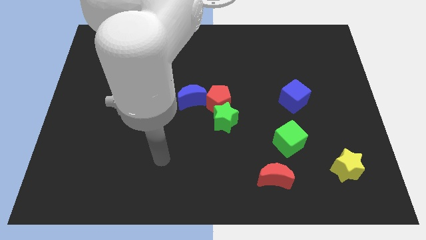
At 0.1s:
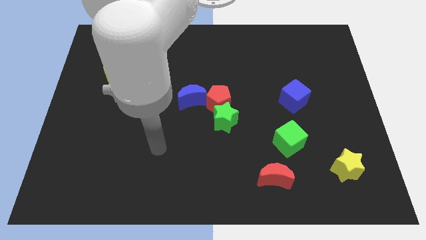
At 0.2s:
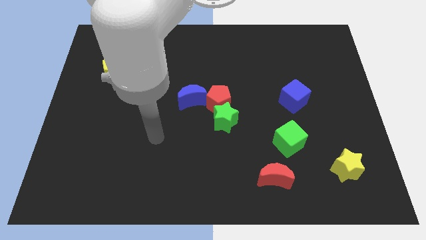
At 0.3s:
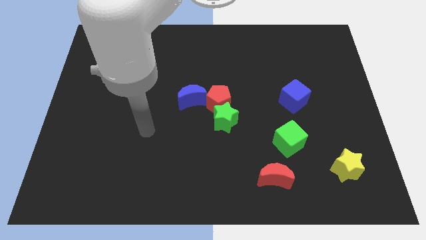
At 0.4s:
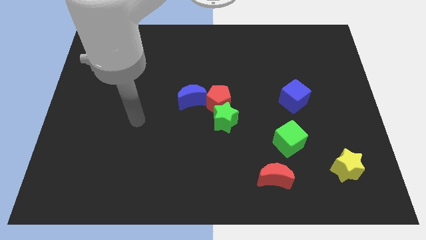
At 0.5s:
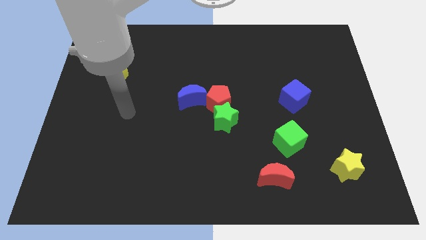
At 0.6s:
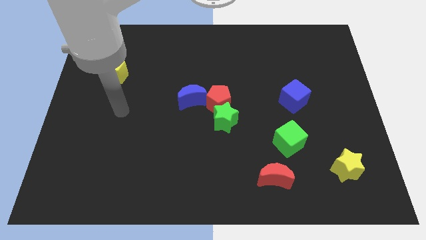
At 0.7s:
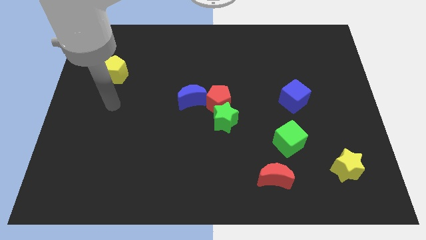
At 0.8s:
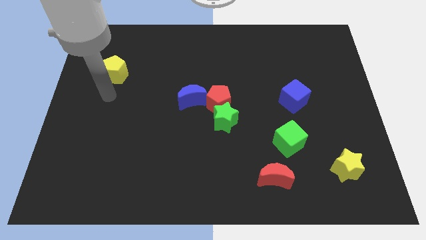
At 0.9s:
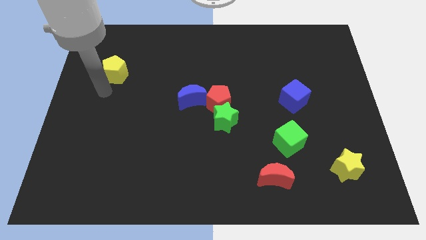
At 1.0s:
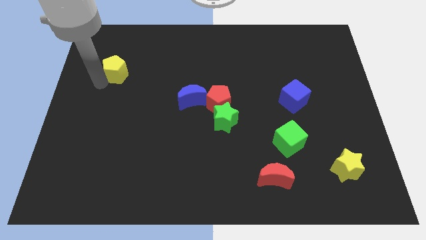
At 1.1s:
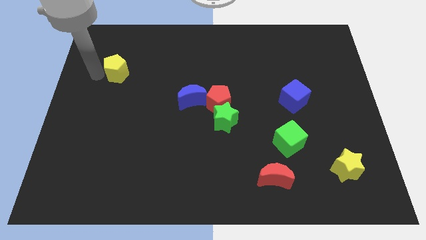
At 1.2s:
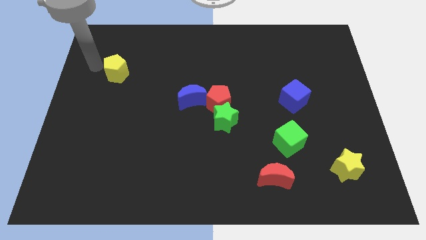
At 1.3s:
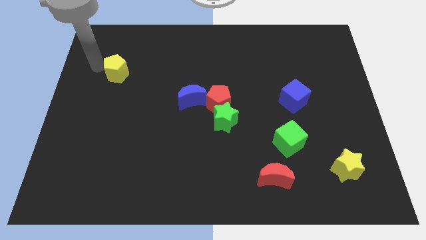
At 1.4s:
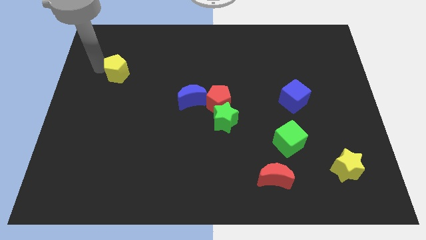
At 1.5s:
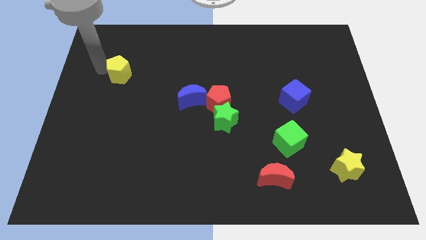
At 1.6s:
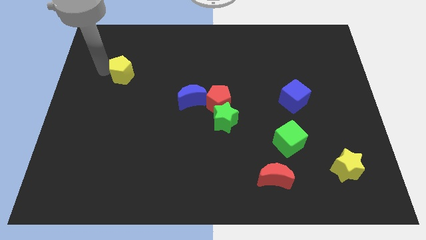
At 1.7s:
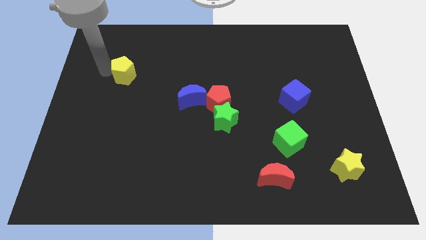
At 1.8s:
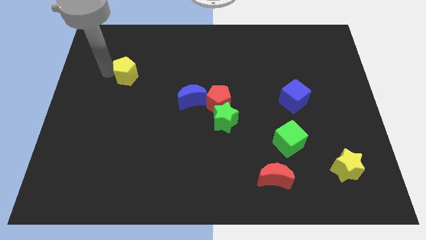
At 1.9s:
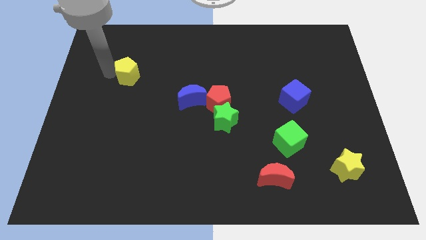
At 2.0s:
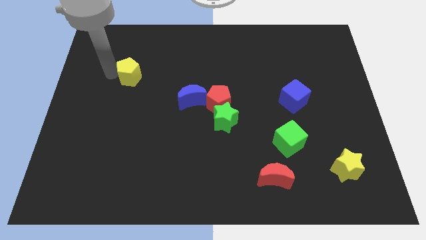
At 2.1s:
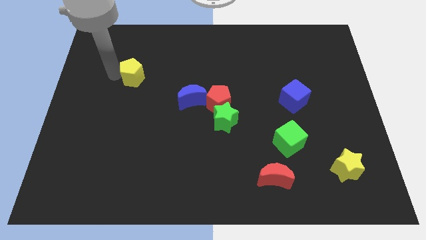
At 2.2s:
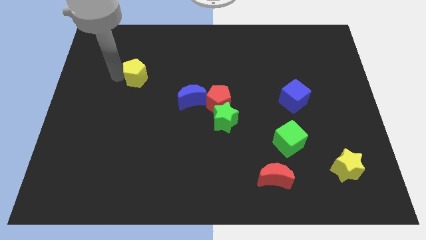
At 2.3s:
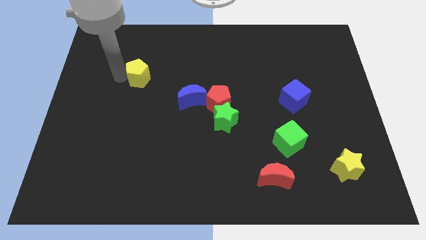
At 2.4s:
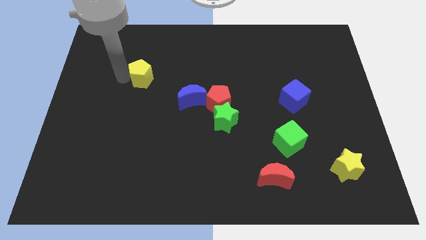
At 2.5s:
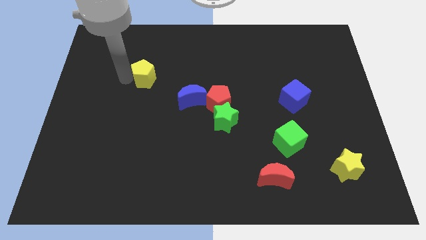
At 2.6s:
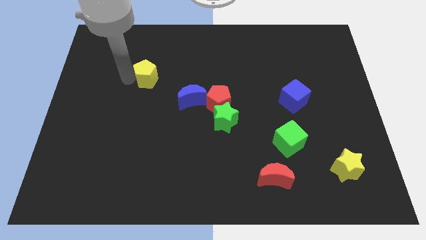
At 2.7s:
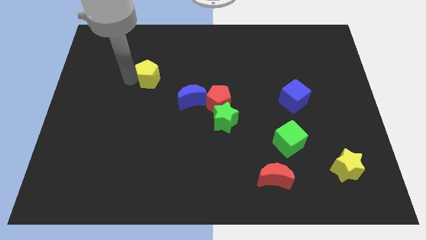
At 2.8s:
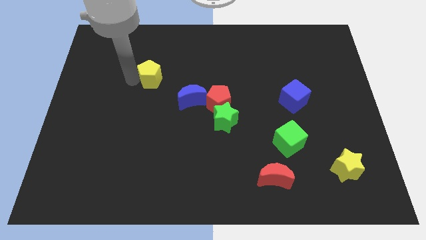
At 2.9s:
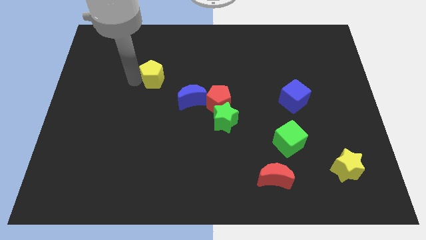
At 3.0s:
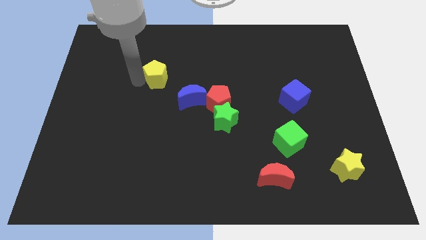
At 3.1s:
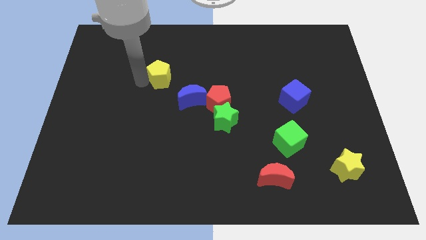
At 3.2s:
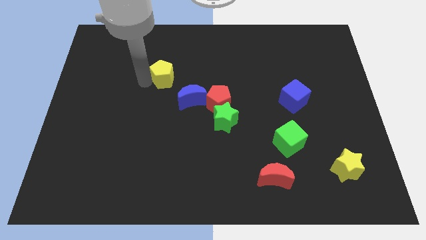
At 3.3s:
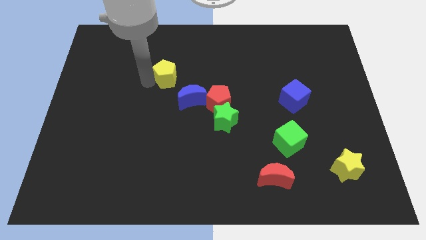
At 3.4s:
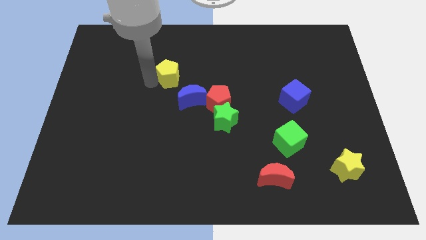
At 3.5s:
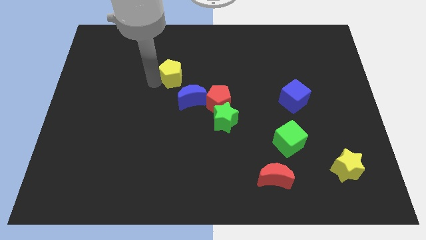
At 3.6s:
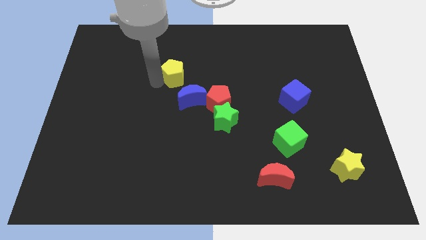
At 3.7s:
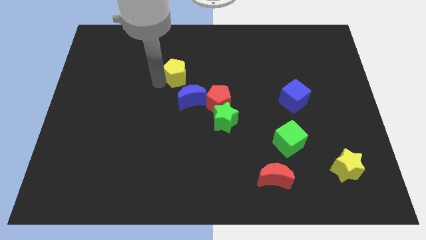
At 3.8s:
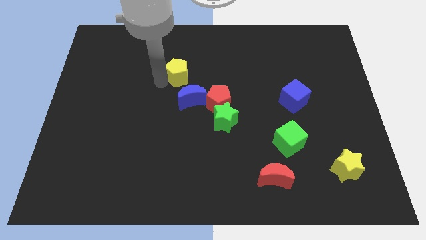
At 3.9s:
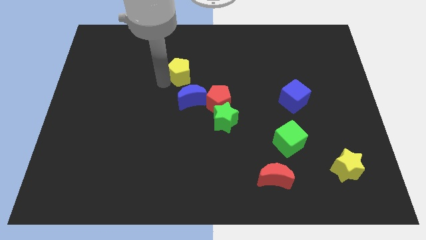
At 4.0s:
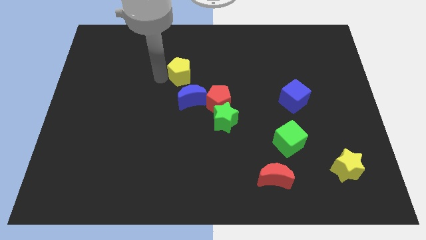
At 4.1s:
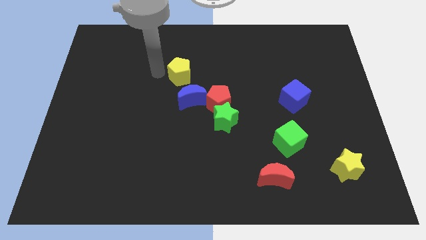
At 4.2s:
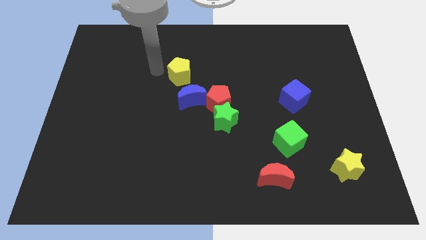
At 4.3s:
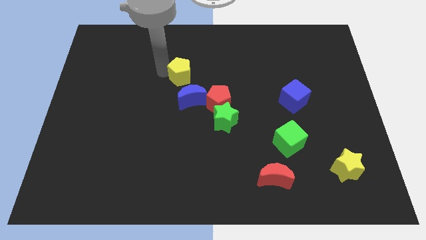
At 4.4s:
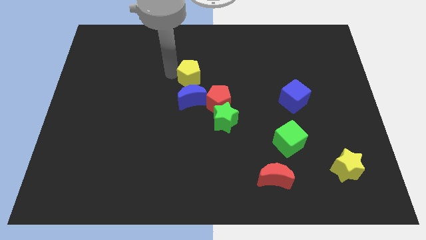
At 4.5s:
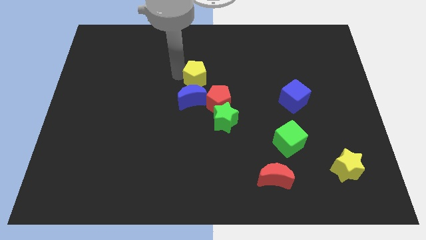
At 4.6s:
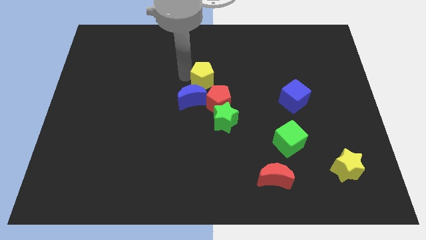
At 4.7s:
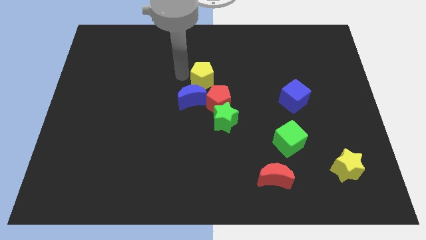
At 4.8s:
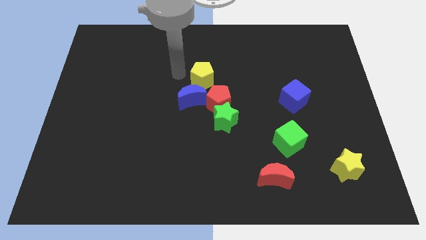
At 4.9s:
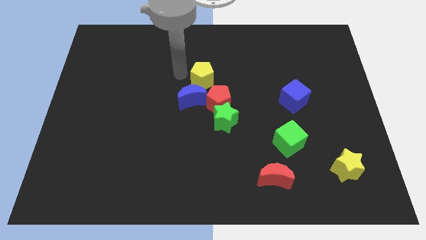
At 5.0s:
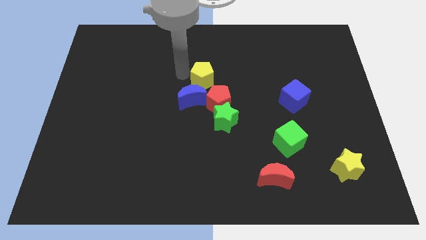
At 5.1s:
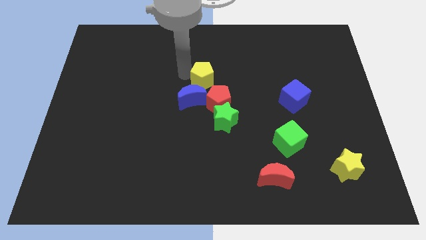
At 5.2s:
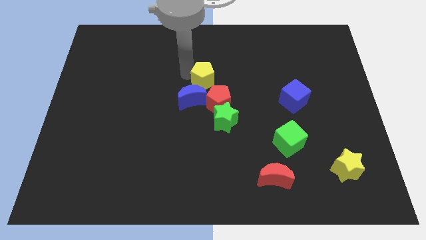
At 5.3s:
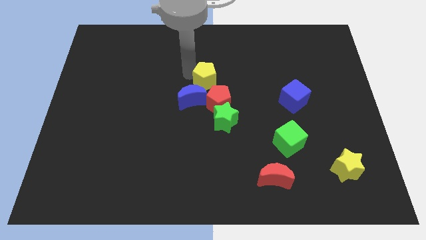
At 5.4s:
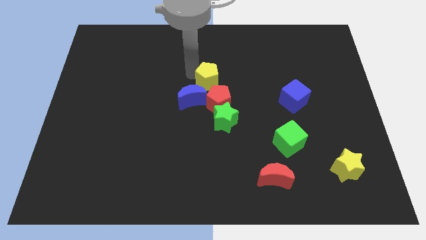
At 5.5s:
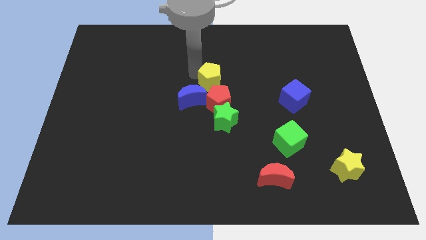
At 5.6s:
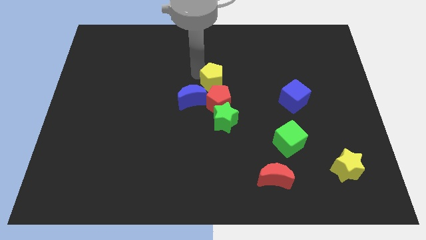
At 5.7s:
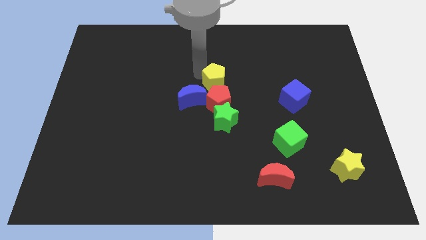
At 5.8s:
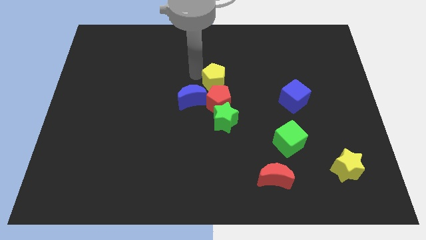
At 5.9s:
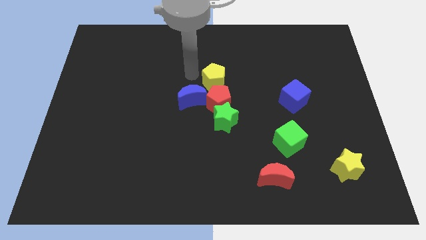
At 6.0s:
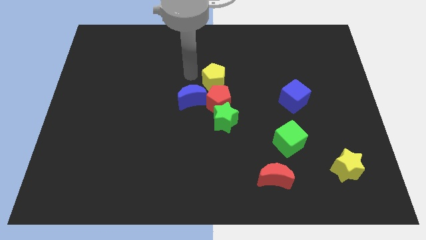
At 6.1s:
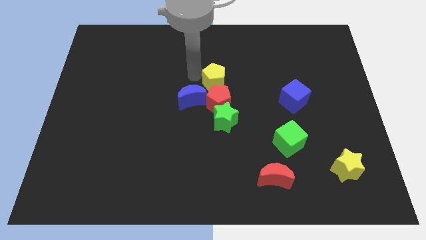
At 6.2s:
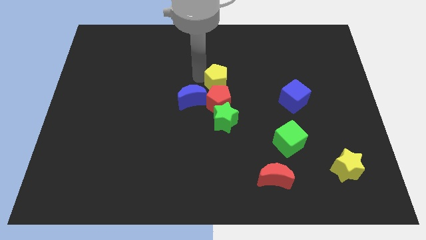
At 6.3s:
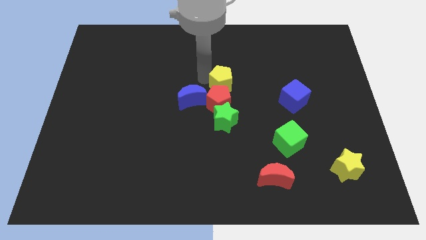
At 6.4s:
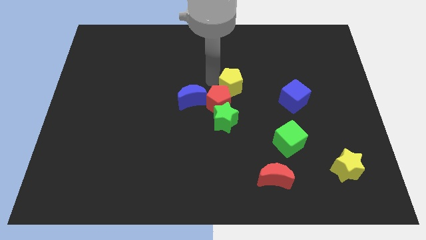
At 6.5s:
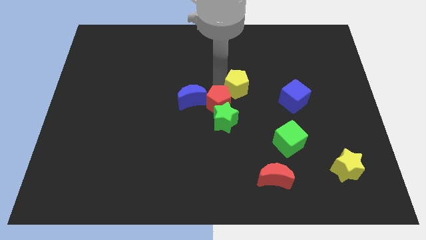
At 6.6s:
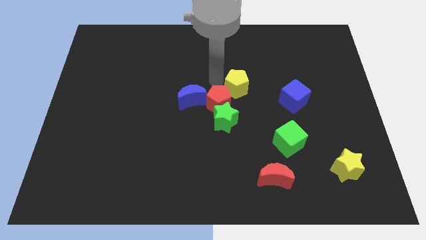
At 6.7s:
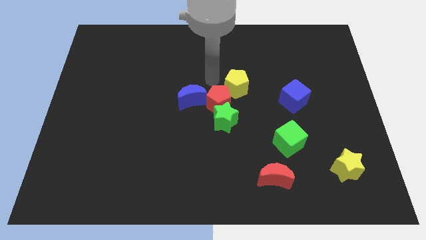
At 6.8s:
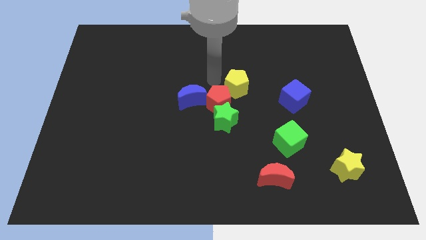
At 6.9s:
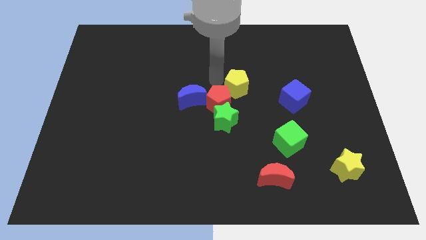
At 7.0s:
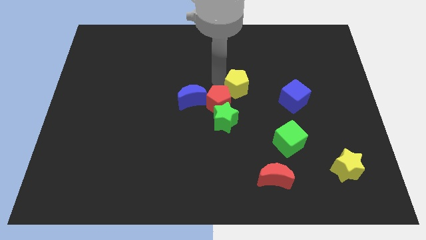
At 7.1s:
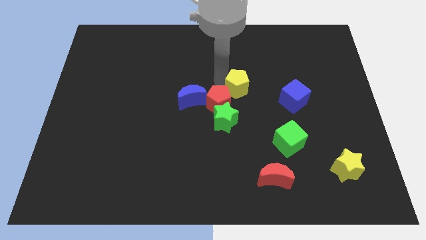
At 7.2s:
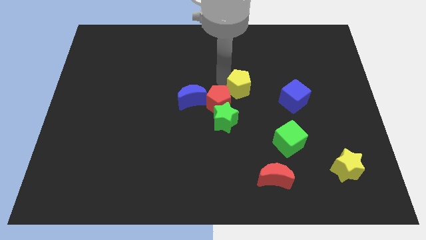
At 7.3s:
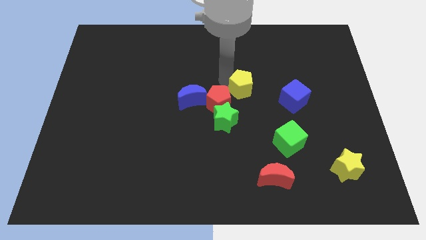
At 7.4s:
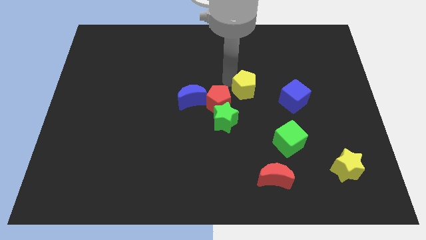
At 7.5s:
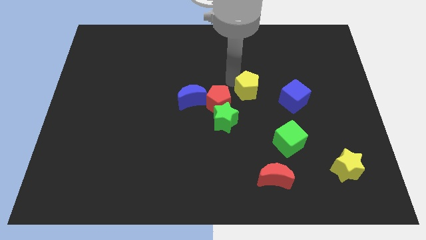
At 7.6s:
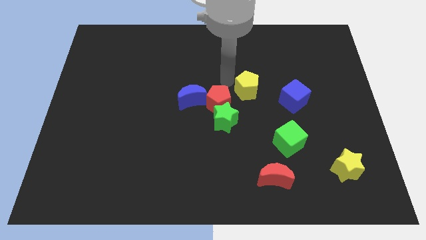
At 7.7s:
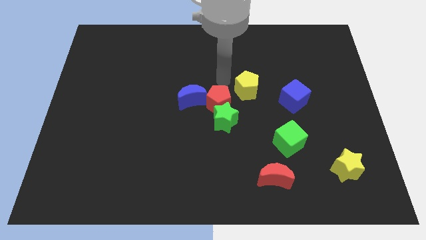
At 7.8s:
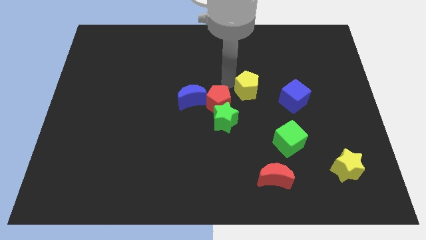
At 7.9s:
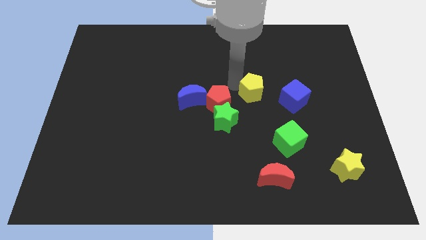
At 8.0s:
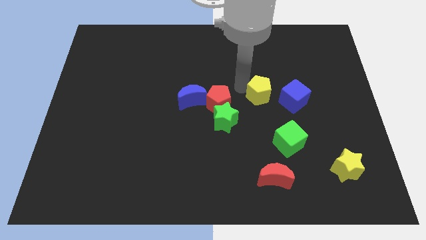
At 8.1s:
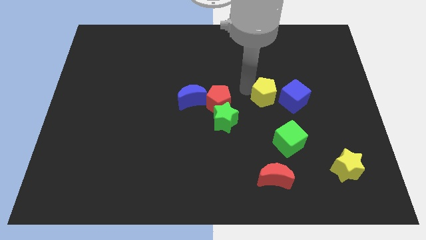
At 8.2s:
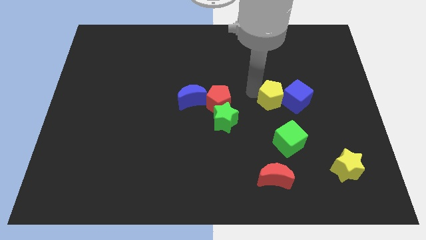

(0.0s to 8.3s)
move the yellow pentagon towards the blue cube
